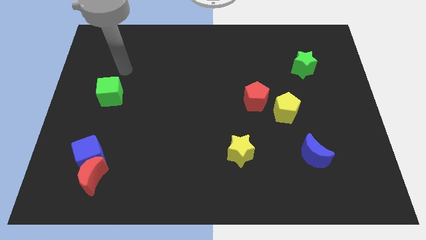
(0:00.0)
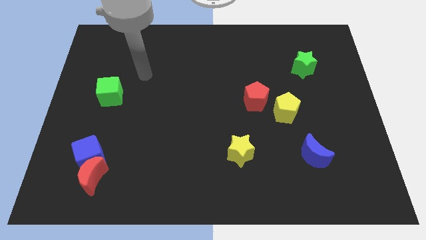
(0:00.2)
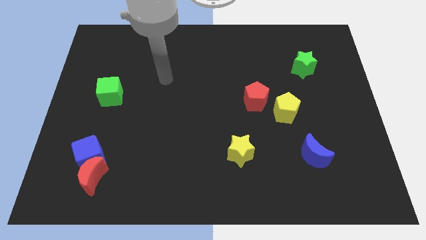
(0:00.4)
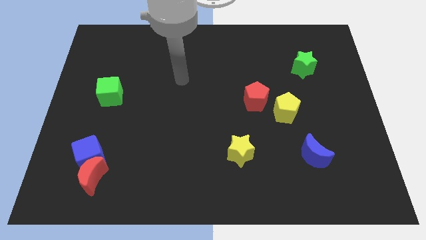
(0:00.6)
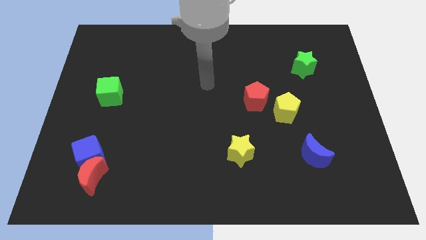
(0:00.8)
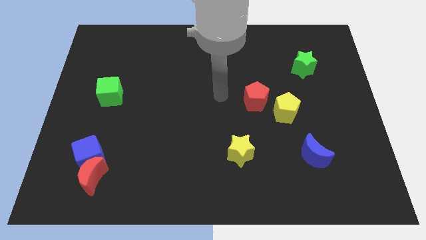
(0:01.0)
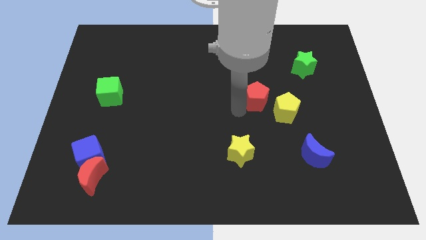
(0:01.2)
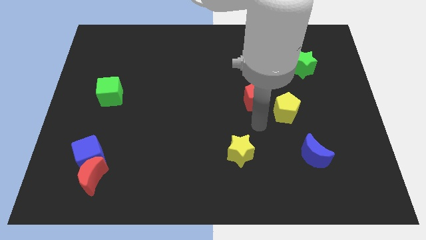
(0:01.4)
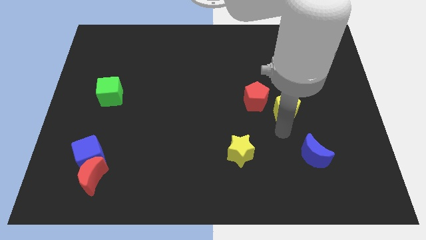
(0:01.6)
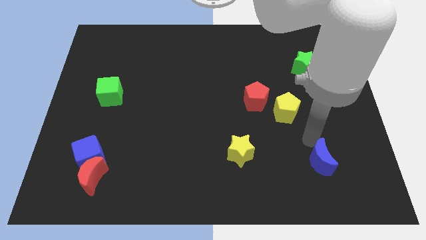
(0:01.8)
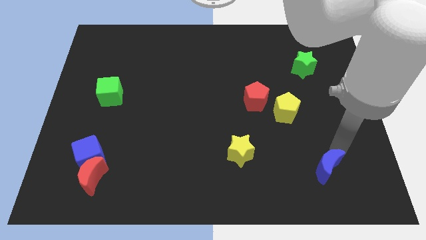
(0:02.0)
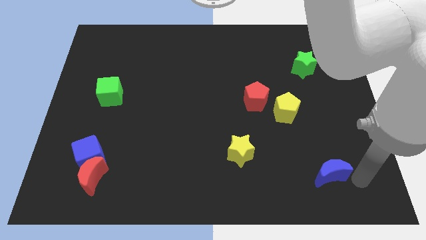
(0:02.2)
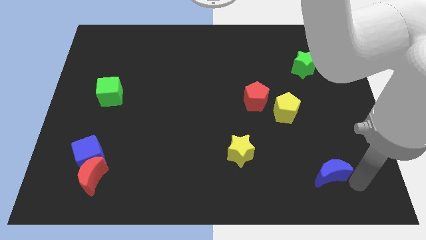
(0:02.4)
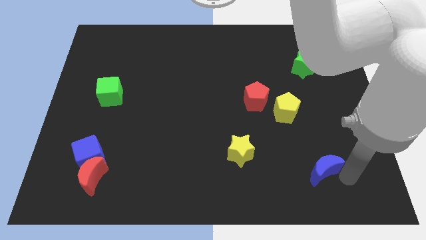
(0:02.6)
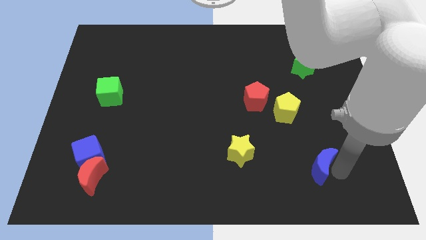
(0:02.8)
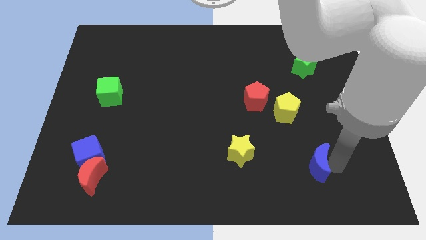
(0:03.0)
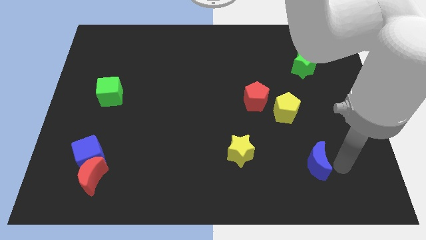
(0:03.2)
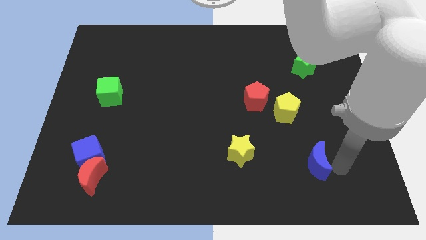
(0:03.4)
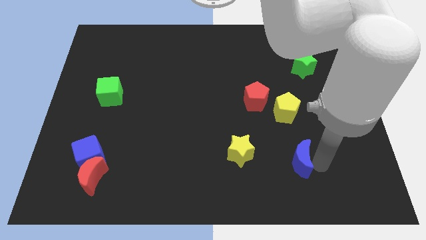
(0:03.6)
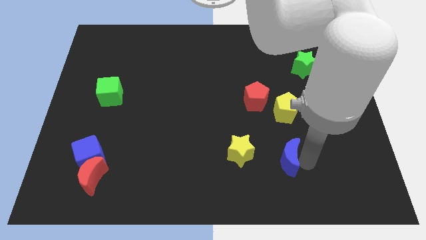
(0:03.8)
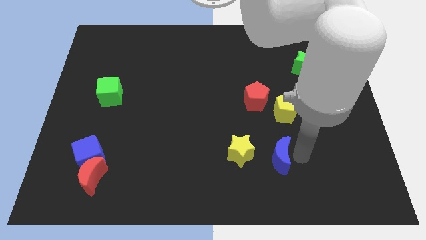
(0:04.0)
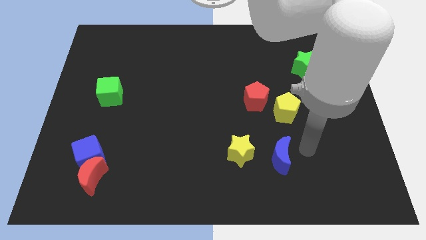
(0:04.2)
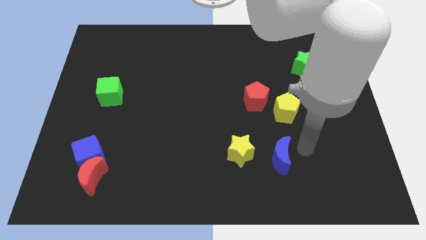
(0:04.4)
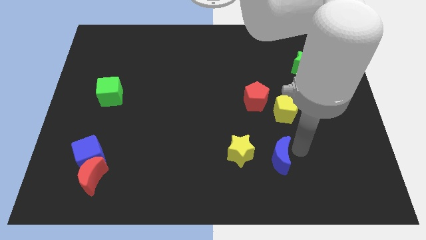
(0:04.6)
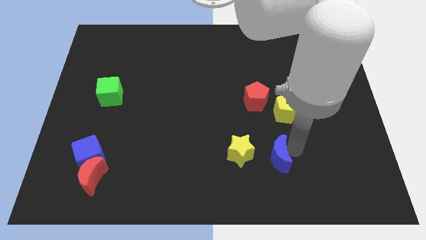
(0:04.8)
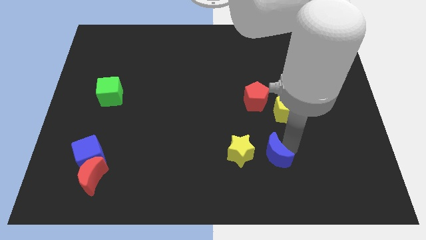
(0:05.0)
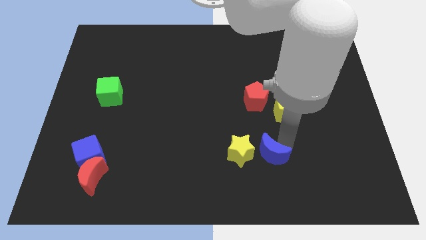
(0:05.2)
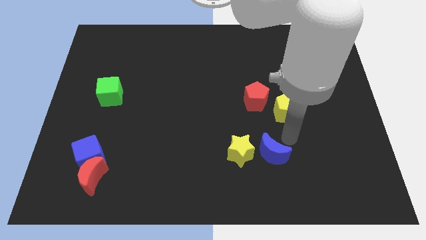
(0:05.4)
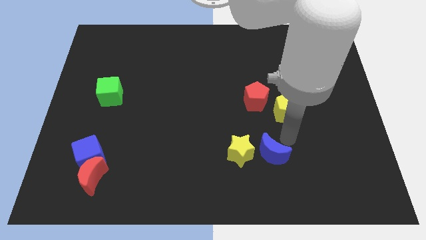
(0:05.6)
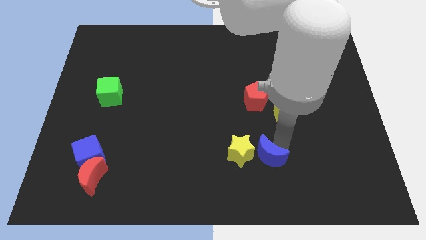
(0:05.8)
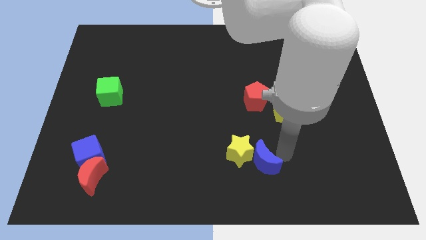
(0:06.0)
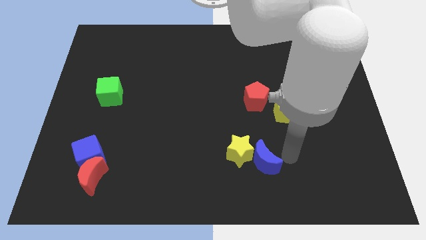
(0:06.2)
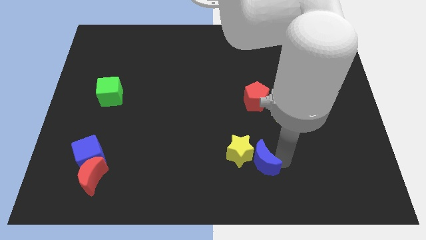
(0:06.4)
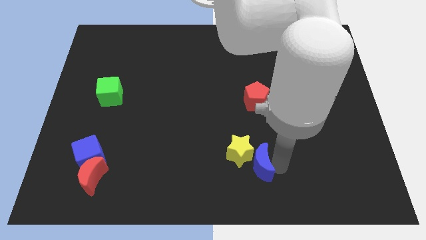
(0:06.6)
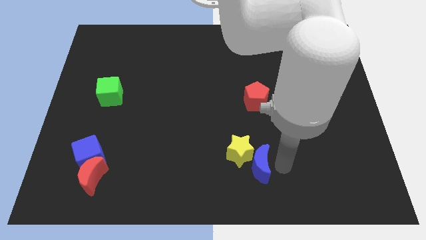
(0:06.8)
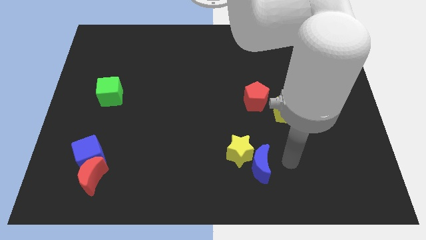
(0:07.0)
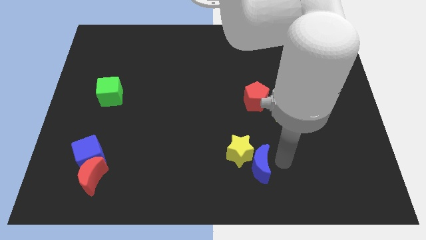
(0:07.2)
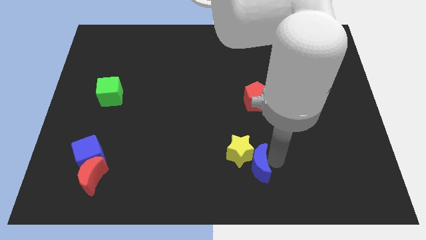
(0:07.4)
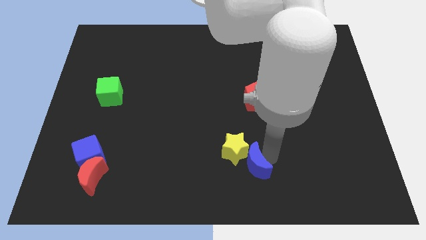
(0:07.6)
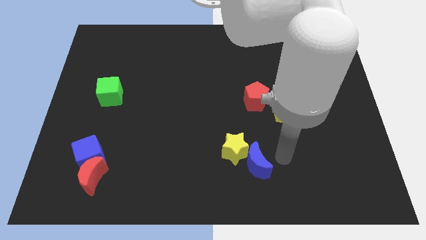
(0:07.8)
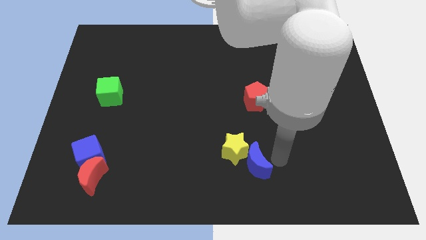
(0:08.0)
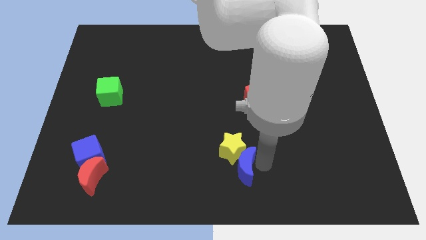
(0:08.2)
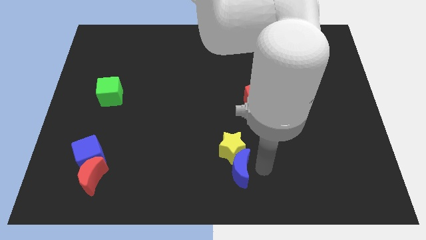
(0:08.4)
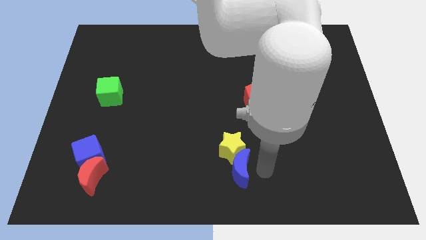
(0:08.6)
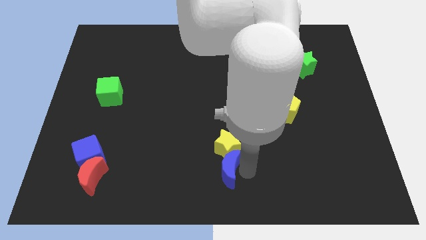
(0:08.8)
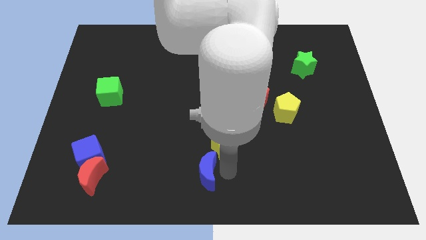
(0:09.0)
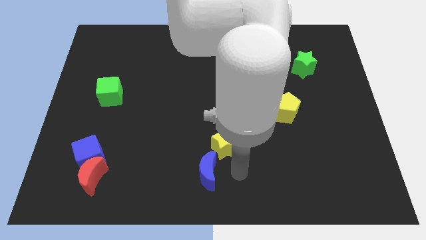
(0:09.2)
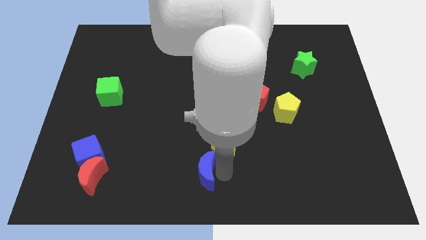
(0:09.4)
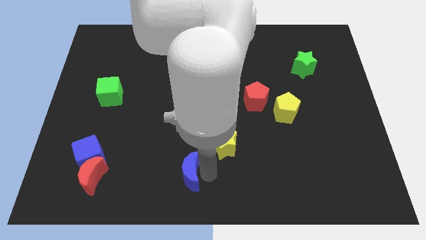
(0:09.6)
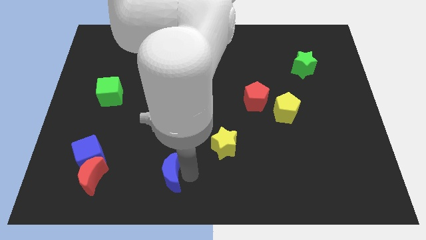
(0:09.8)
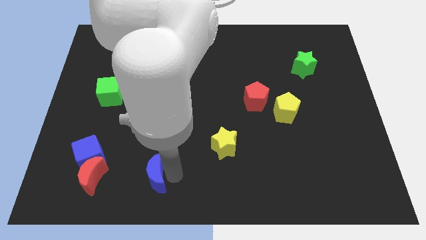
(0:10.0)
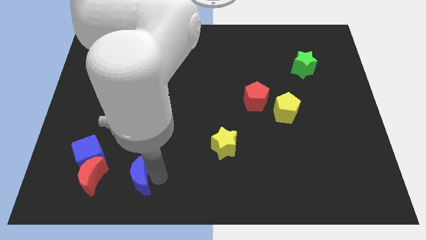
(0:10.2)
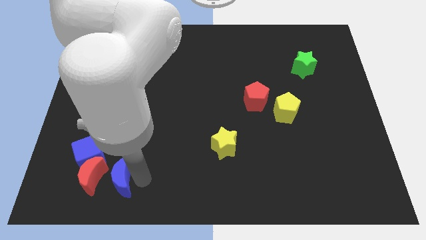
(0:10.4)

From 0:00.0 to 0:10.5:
slide the blue moon close to the red moon

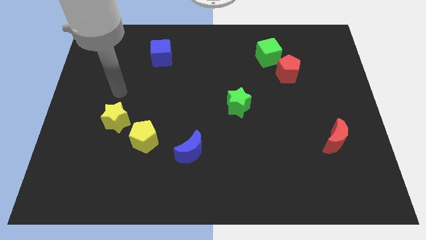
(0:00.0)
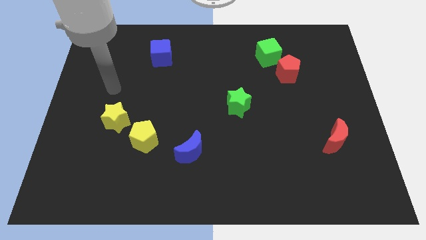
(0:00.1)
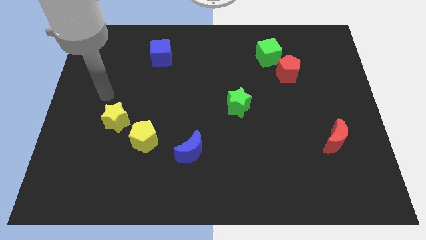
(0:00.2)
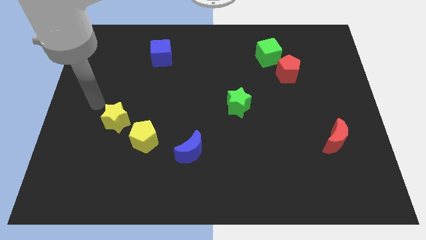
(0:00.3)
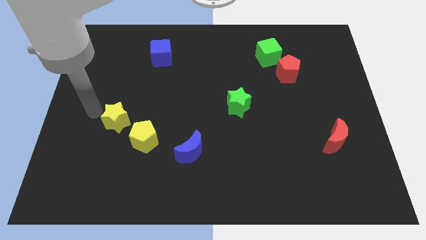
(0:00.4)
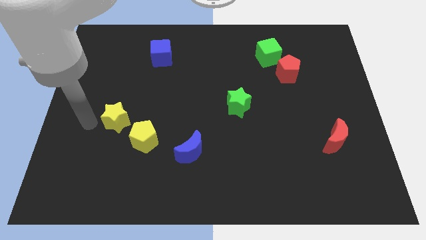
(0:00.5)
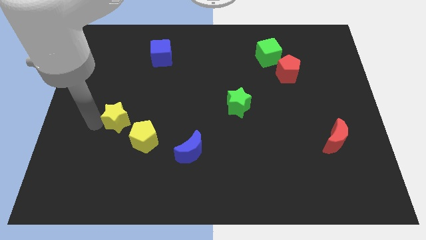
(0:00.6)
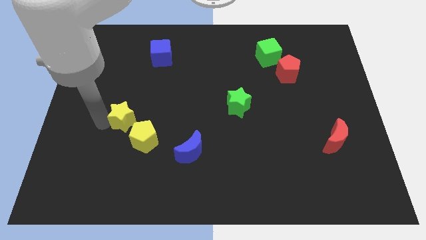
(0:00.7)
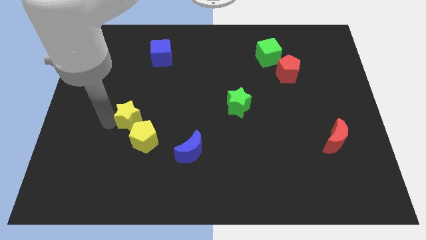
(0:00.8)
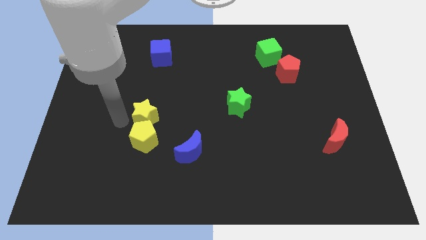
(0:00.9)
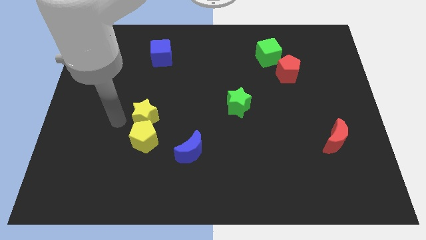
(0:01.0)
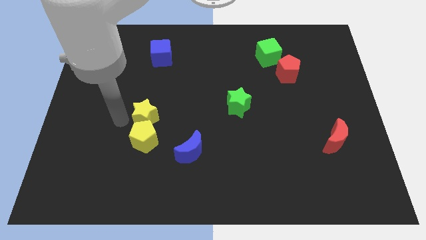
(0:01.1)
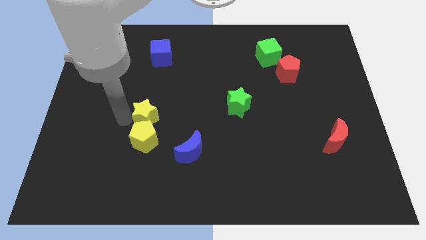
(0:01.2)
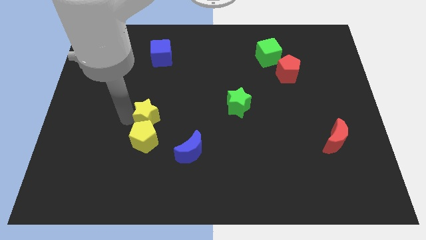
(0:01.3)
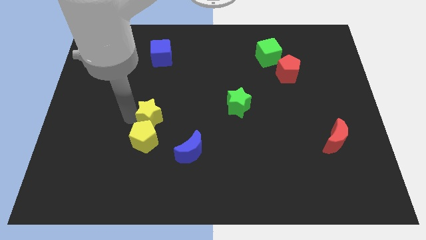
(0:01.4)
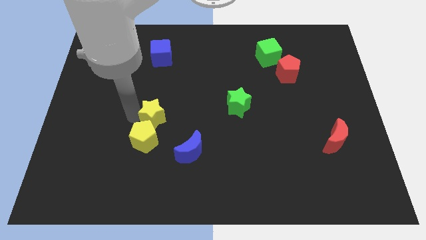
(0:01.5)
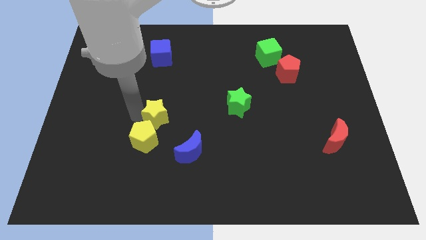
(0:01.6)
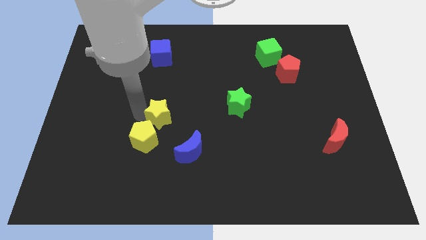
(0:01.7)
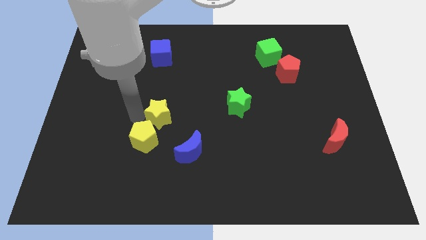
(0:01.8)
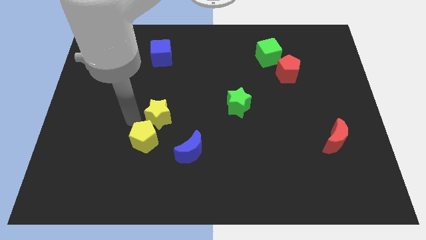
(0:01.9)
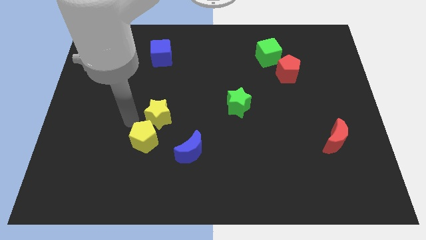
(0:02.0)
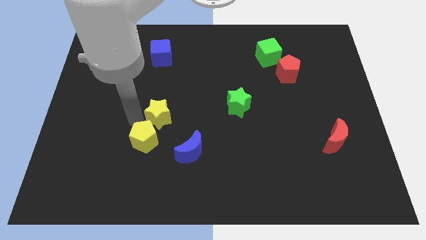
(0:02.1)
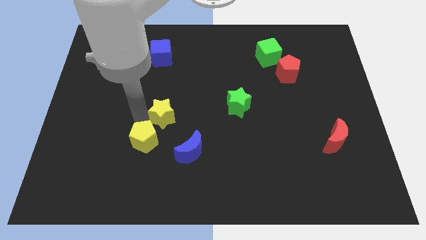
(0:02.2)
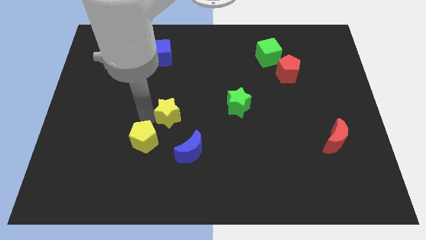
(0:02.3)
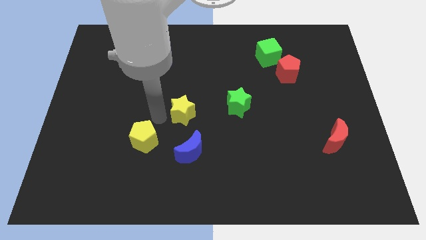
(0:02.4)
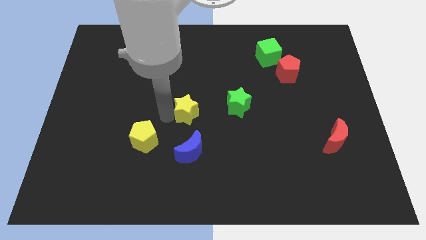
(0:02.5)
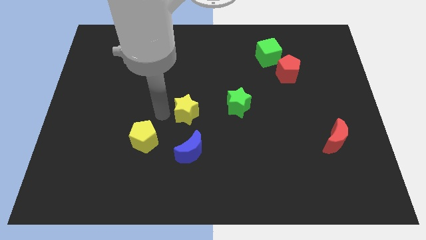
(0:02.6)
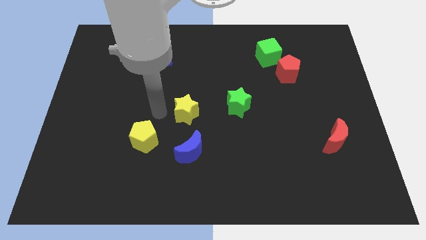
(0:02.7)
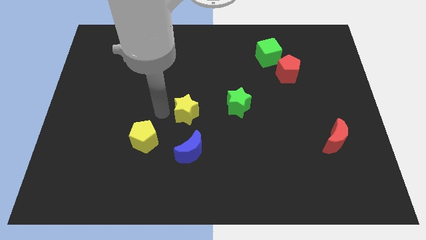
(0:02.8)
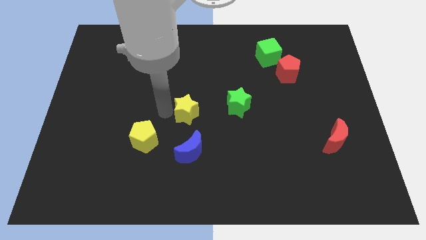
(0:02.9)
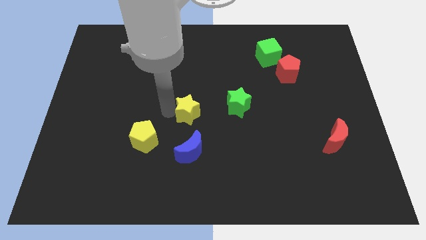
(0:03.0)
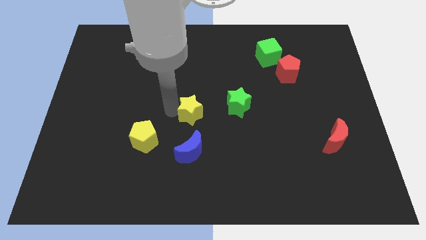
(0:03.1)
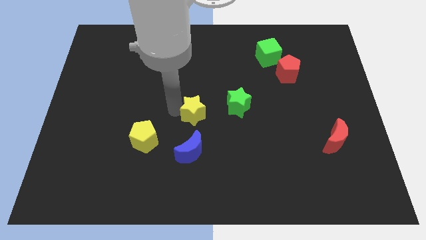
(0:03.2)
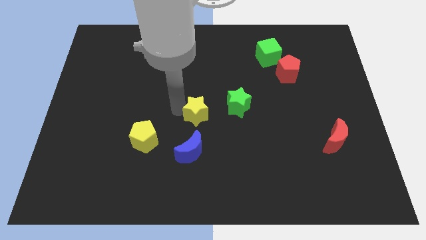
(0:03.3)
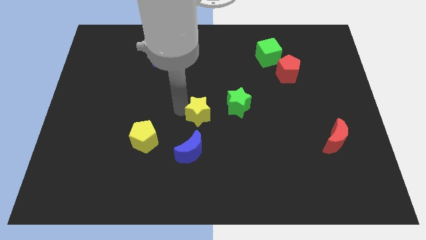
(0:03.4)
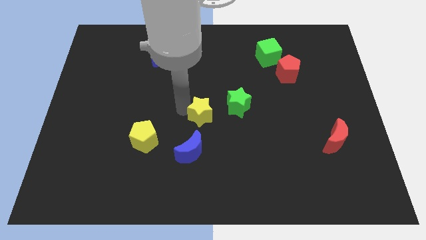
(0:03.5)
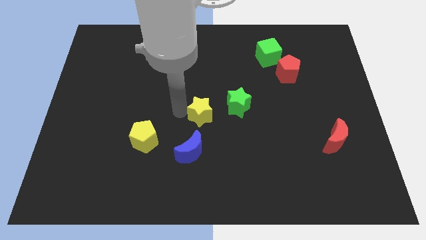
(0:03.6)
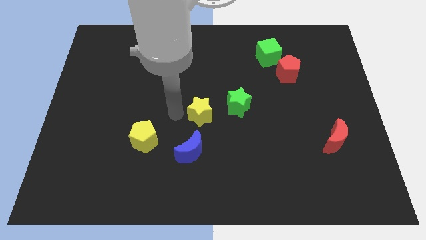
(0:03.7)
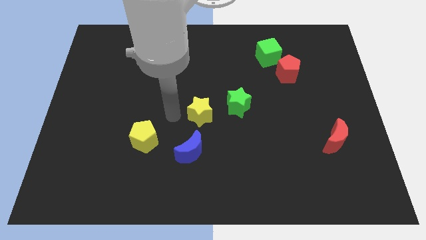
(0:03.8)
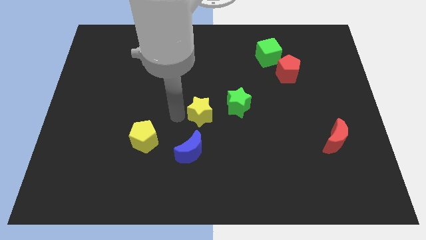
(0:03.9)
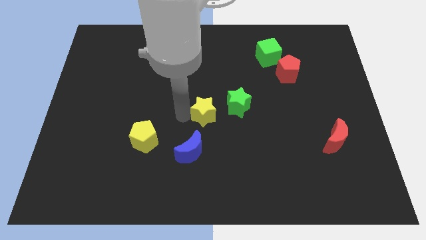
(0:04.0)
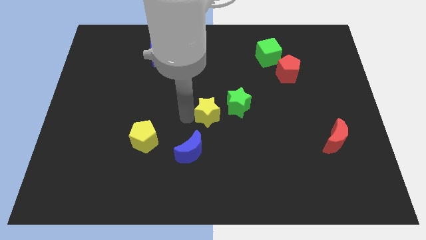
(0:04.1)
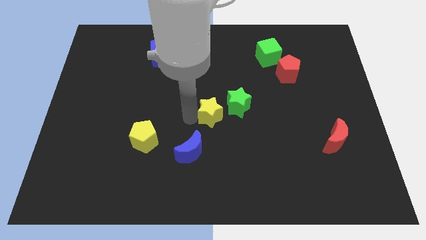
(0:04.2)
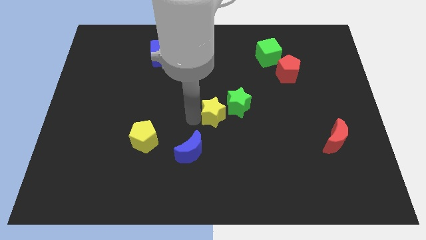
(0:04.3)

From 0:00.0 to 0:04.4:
push the yellow star towards the green star
